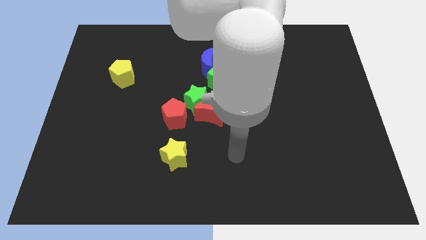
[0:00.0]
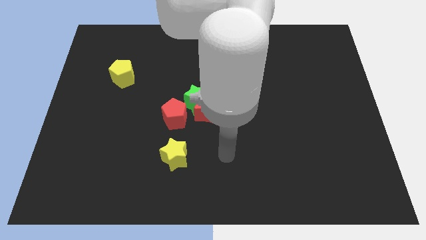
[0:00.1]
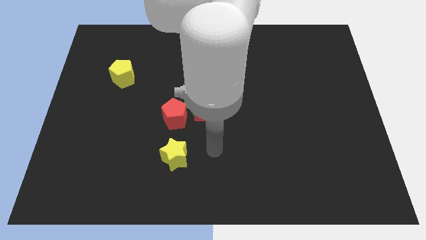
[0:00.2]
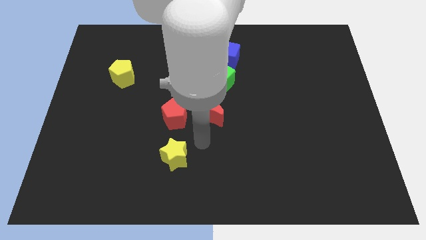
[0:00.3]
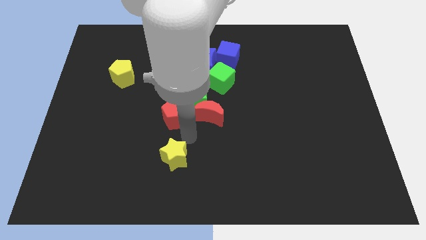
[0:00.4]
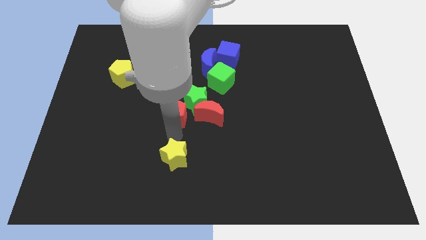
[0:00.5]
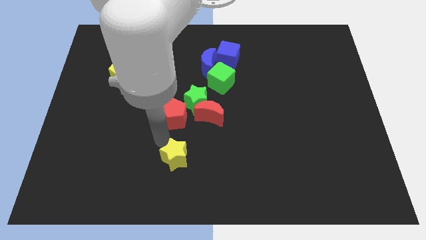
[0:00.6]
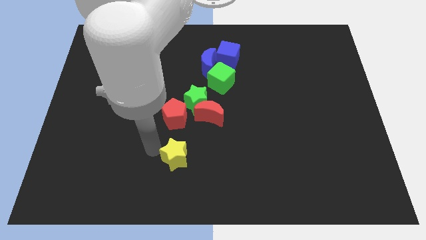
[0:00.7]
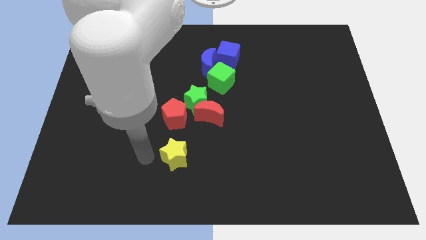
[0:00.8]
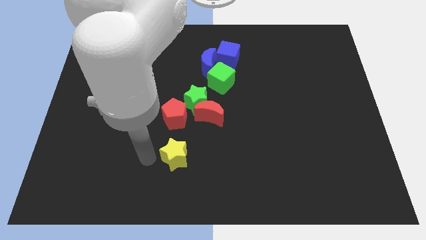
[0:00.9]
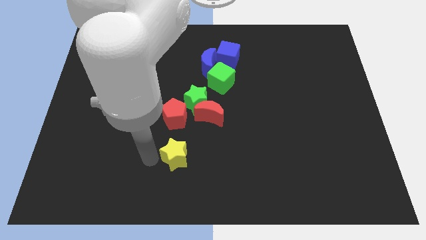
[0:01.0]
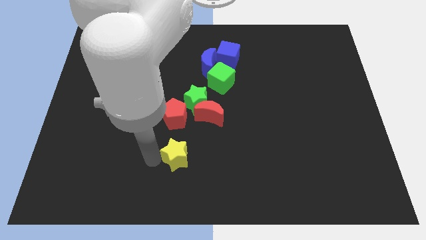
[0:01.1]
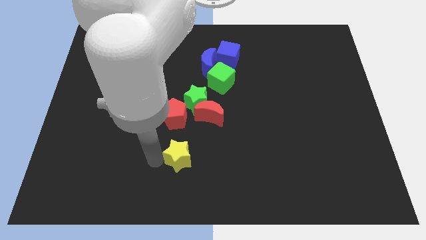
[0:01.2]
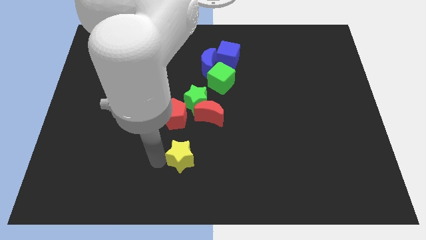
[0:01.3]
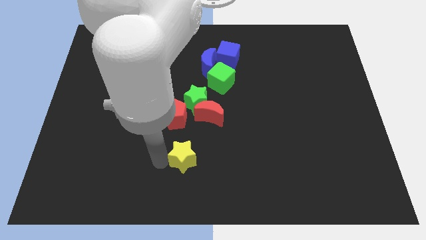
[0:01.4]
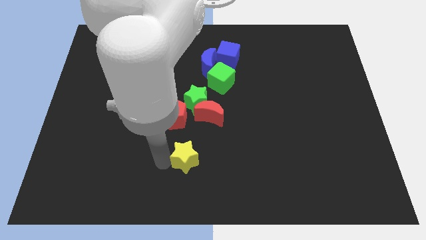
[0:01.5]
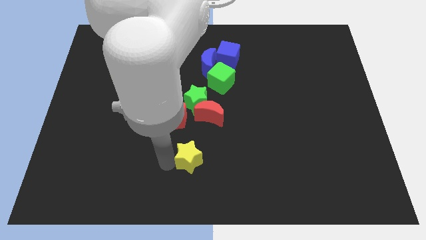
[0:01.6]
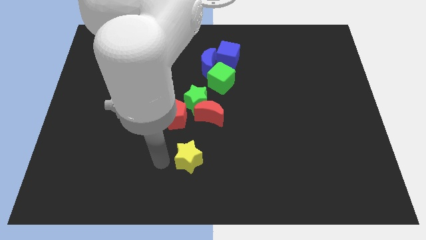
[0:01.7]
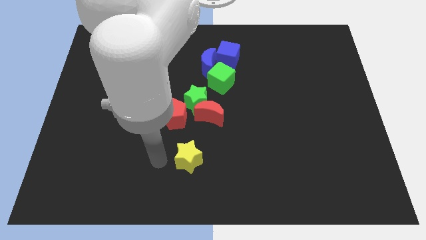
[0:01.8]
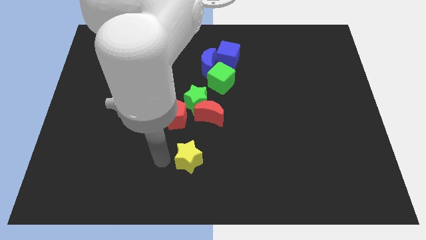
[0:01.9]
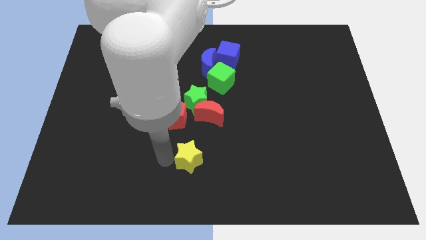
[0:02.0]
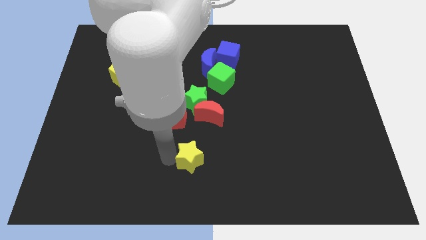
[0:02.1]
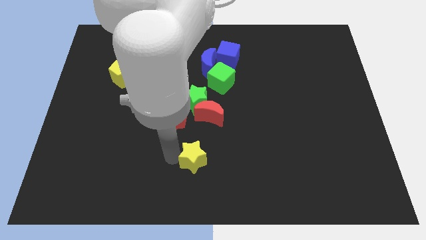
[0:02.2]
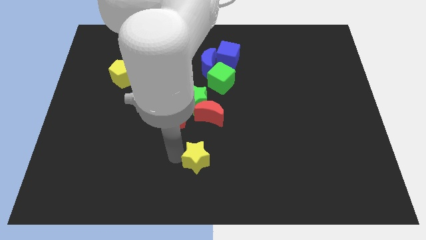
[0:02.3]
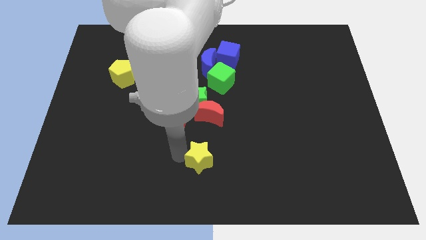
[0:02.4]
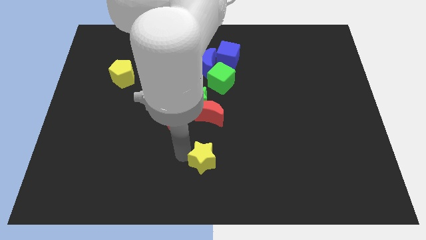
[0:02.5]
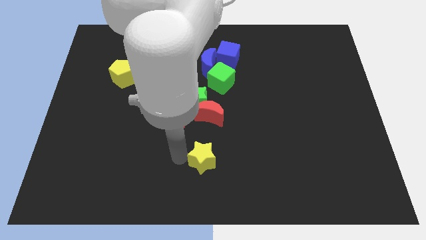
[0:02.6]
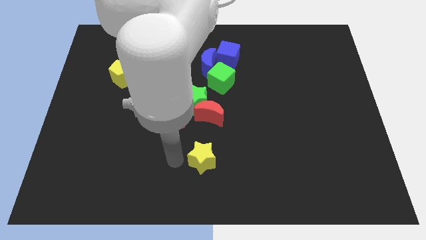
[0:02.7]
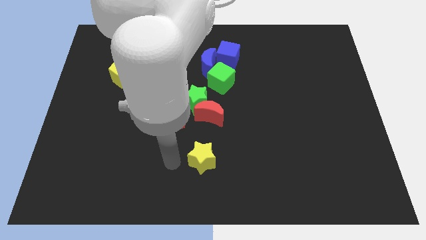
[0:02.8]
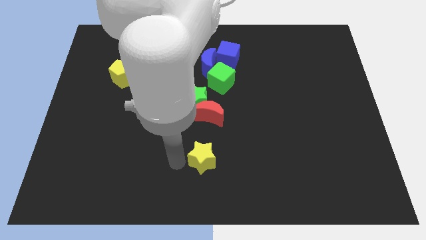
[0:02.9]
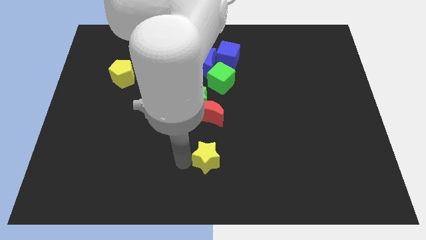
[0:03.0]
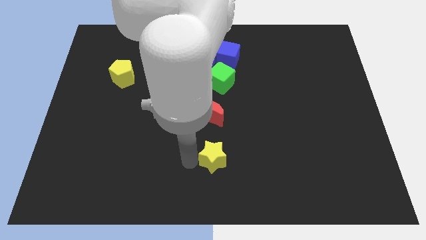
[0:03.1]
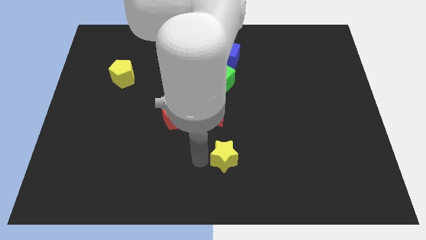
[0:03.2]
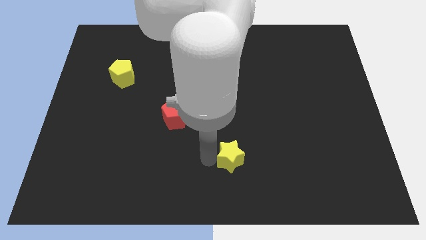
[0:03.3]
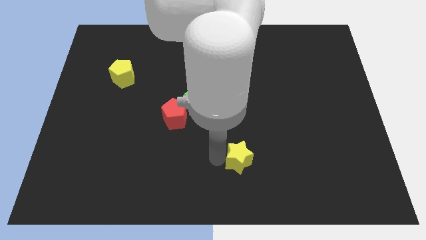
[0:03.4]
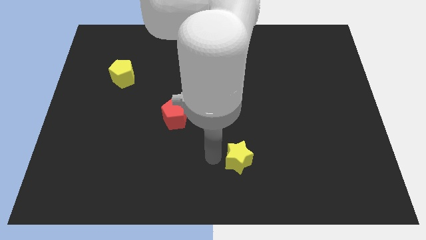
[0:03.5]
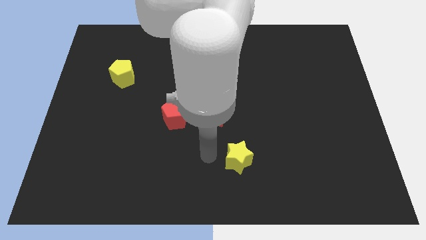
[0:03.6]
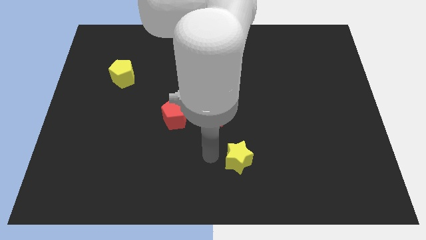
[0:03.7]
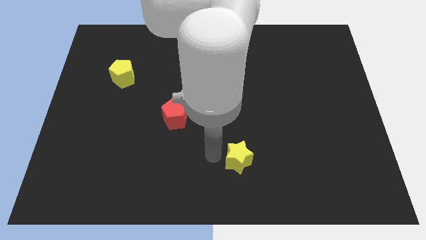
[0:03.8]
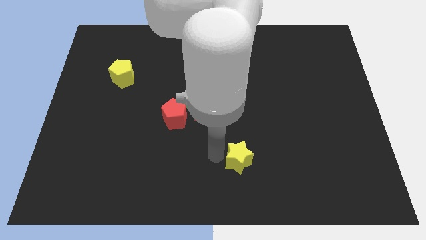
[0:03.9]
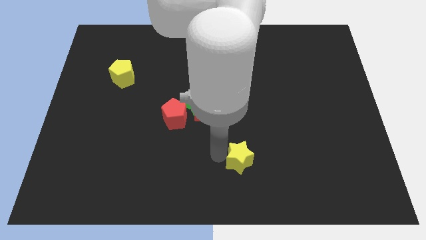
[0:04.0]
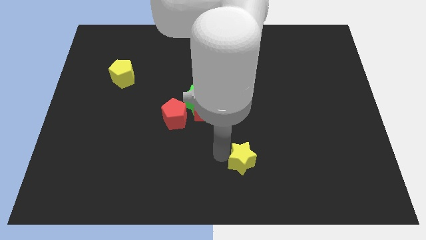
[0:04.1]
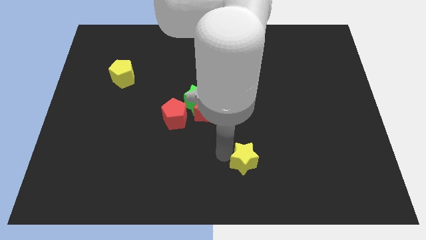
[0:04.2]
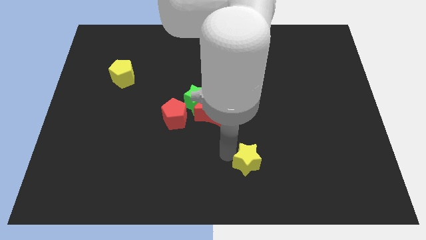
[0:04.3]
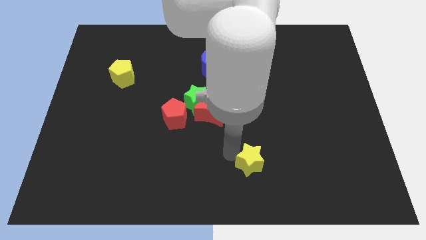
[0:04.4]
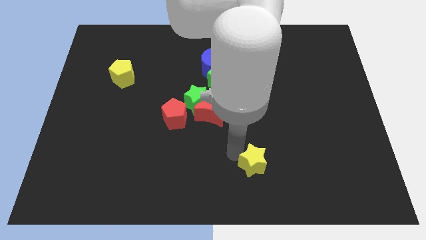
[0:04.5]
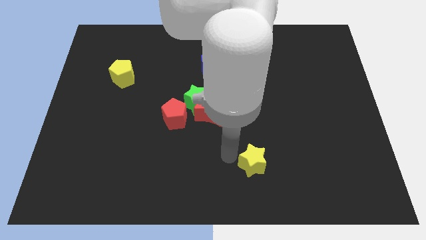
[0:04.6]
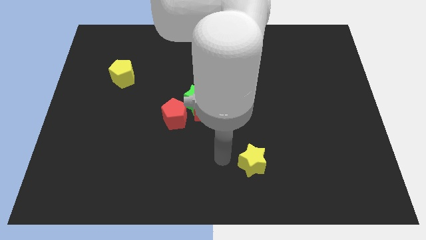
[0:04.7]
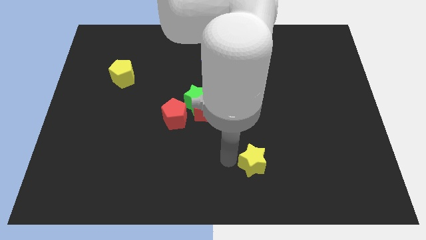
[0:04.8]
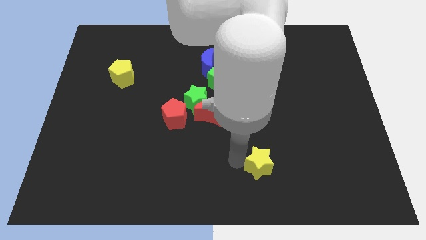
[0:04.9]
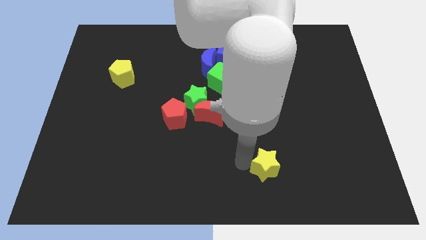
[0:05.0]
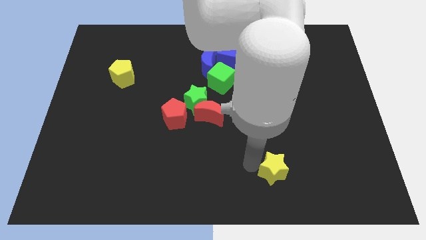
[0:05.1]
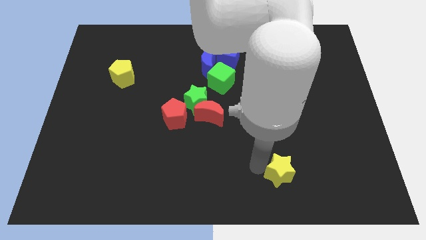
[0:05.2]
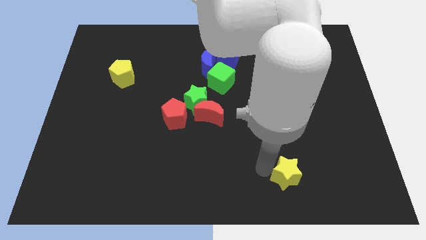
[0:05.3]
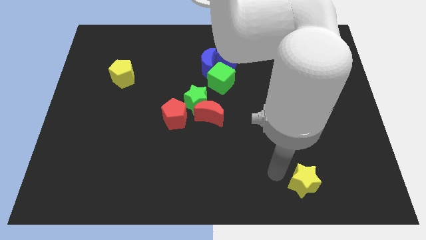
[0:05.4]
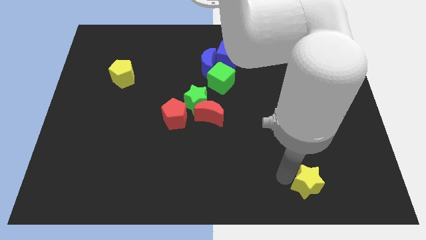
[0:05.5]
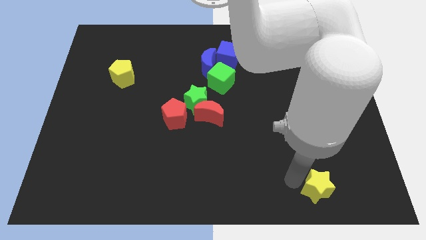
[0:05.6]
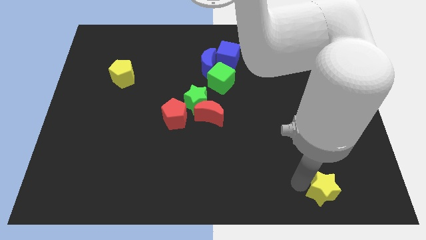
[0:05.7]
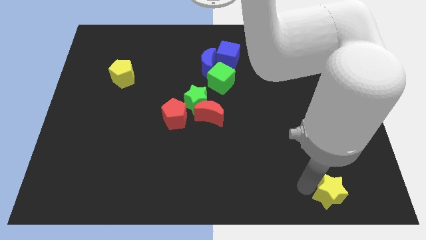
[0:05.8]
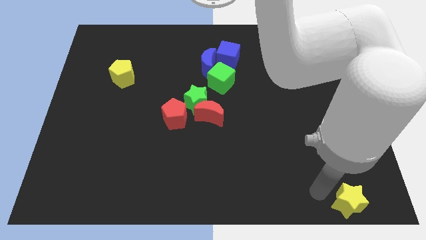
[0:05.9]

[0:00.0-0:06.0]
push the yellow star to the bottom right corner

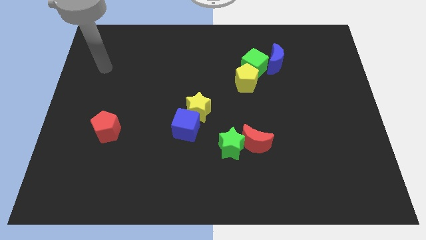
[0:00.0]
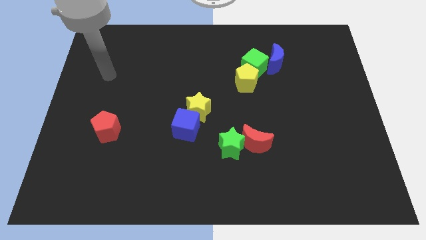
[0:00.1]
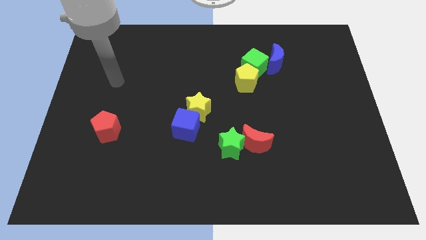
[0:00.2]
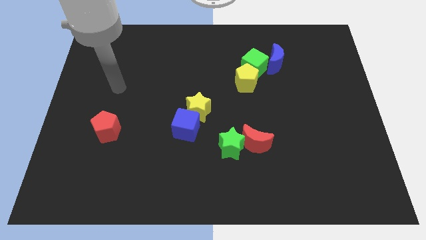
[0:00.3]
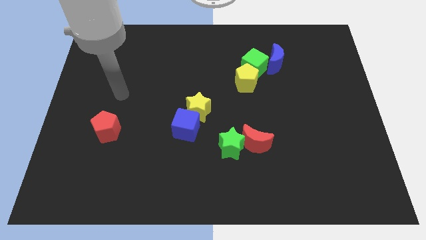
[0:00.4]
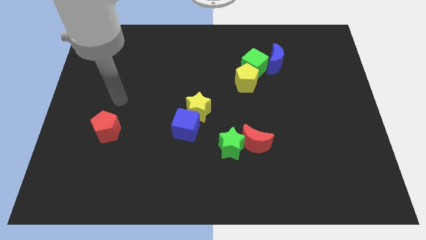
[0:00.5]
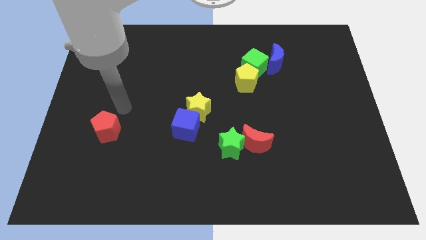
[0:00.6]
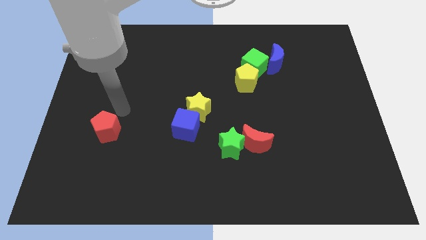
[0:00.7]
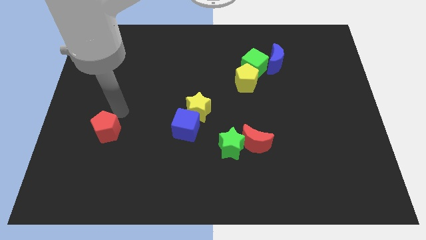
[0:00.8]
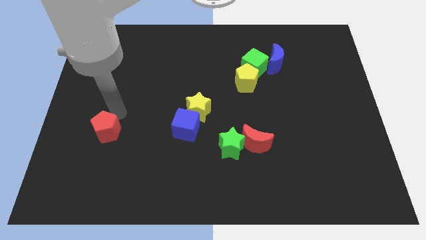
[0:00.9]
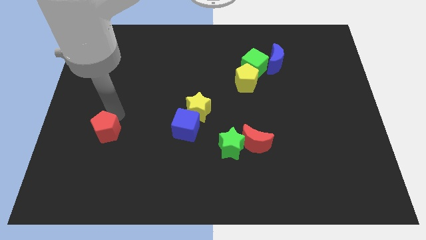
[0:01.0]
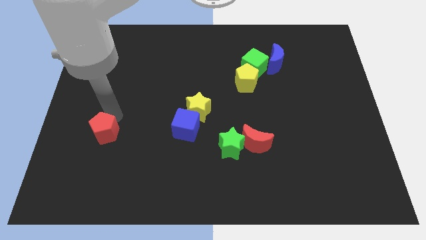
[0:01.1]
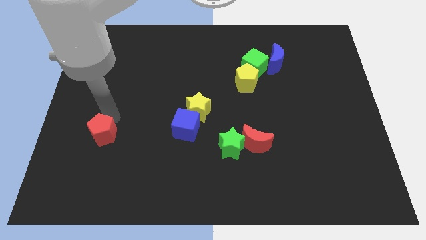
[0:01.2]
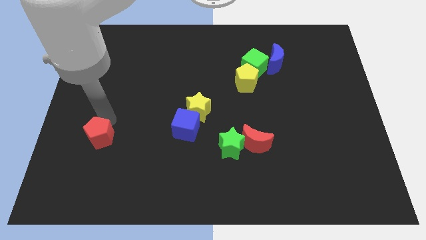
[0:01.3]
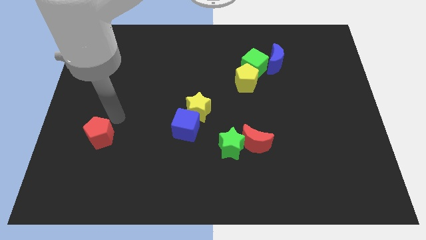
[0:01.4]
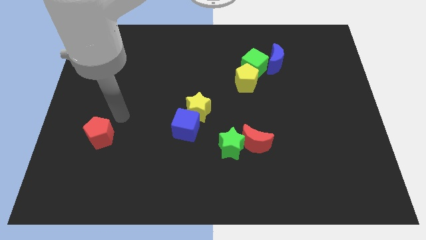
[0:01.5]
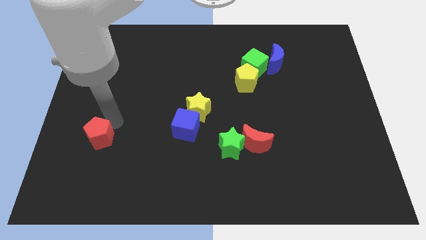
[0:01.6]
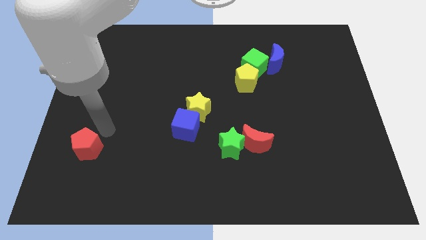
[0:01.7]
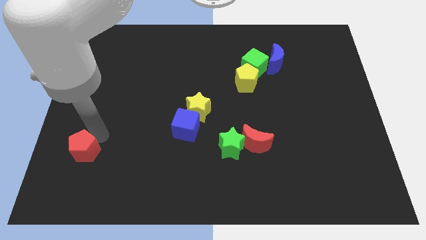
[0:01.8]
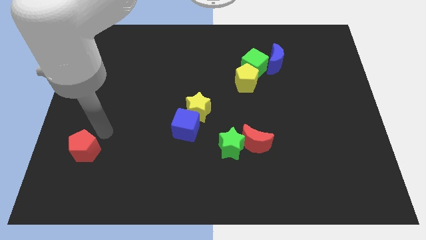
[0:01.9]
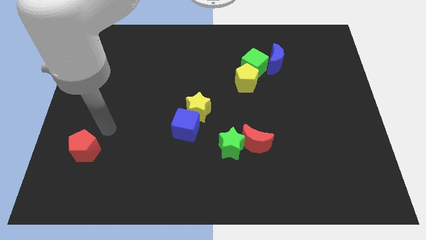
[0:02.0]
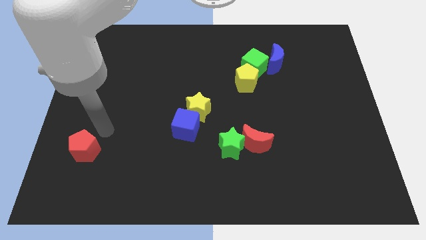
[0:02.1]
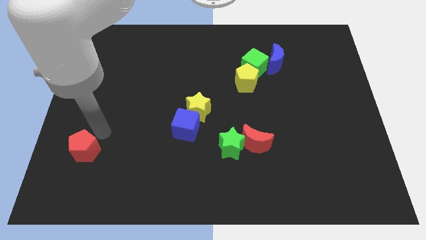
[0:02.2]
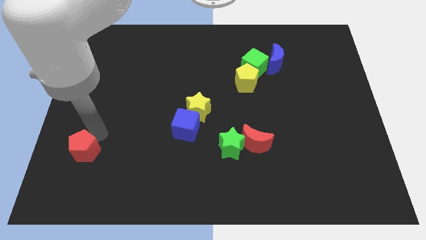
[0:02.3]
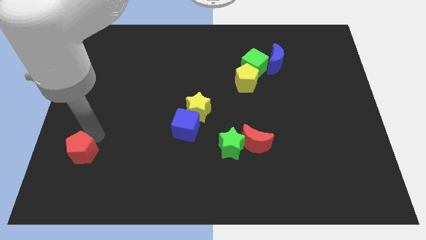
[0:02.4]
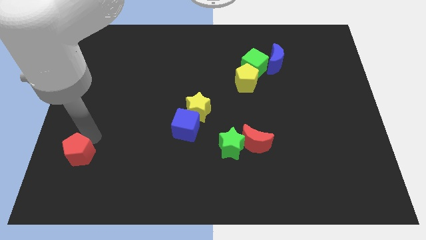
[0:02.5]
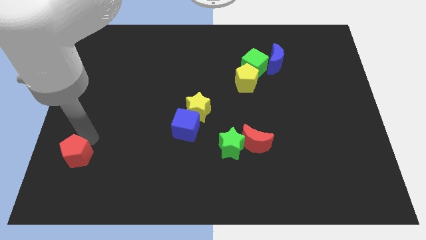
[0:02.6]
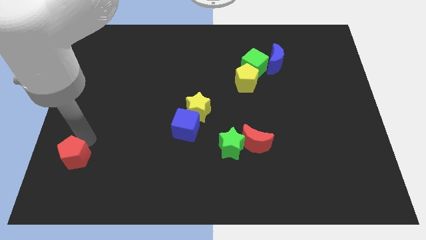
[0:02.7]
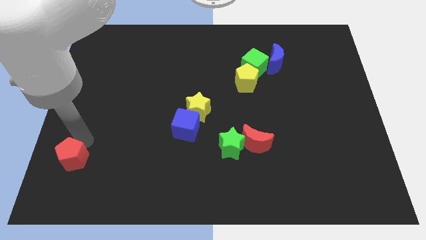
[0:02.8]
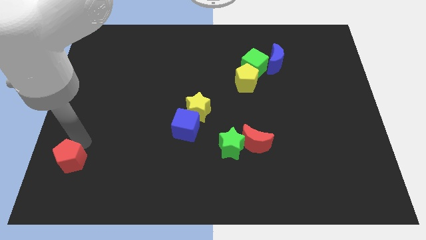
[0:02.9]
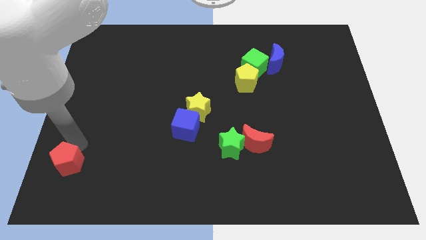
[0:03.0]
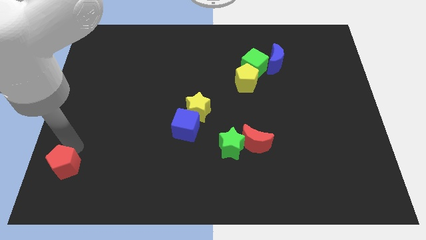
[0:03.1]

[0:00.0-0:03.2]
push the red pentagon to the lower left corner
